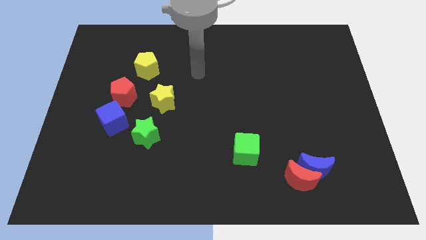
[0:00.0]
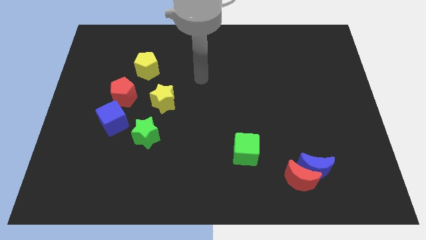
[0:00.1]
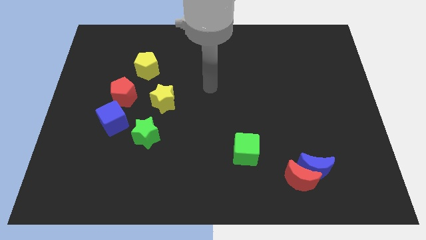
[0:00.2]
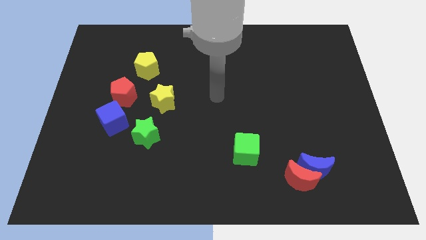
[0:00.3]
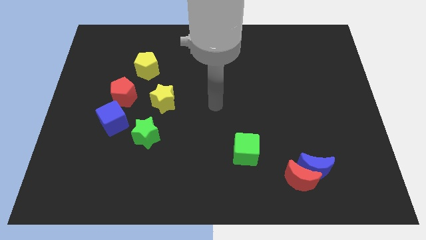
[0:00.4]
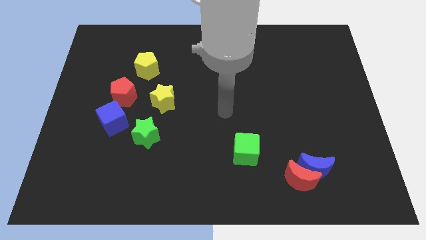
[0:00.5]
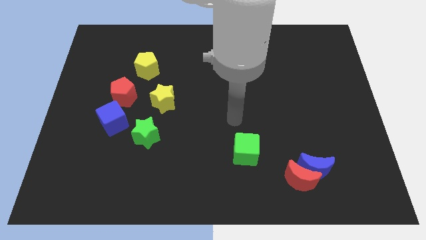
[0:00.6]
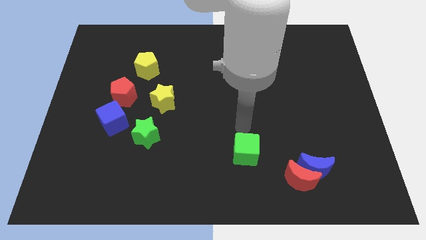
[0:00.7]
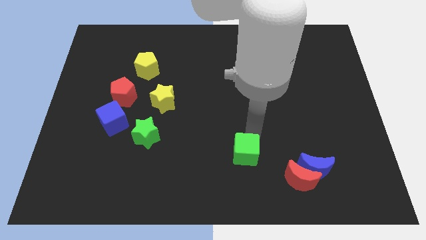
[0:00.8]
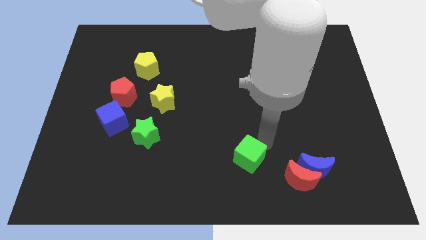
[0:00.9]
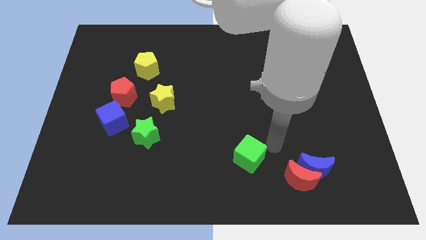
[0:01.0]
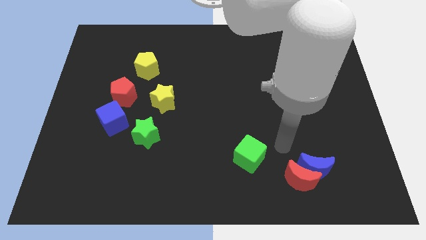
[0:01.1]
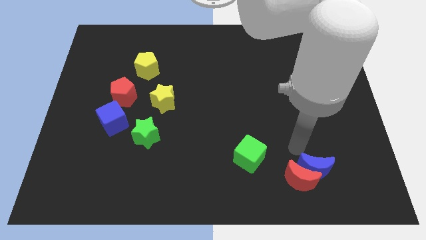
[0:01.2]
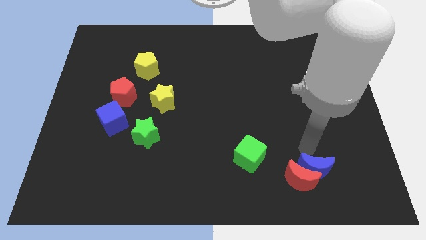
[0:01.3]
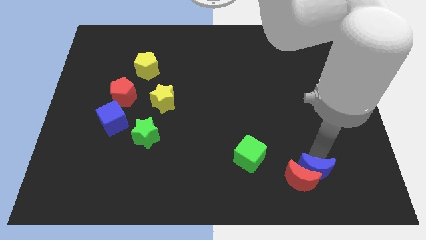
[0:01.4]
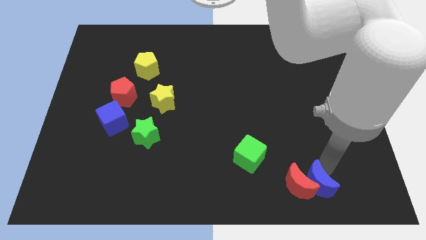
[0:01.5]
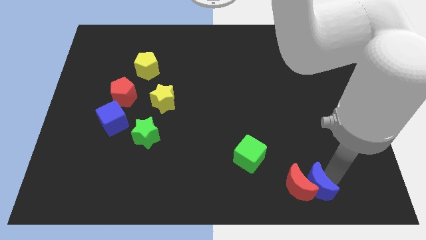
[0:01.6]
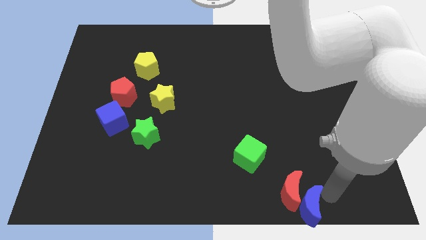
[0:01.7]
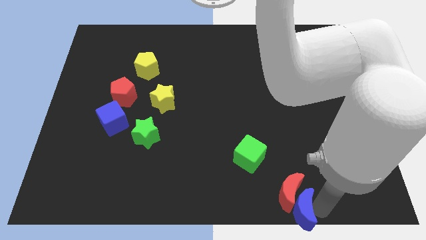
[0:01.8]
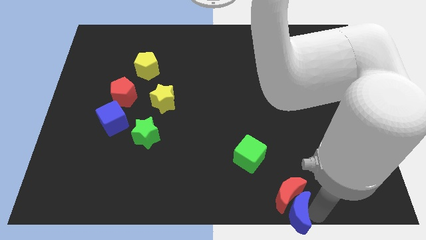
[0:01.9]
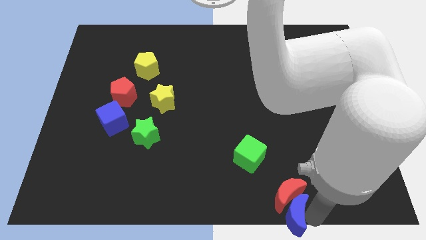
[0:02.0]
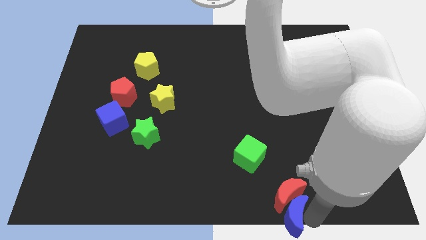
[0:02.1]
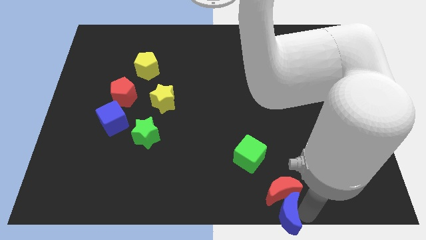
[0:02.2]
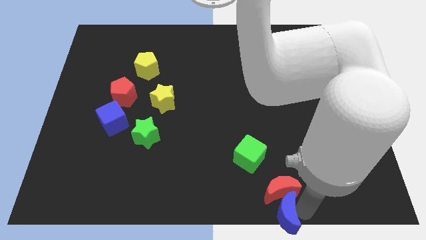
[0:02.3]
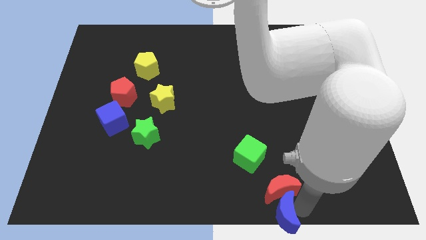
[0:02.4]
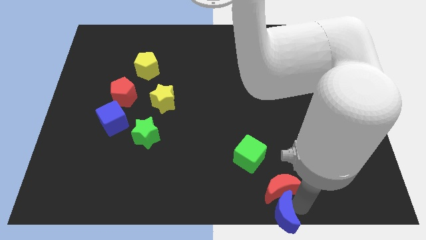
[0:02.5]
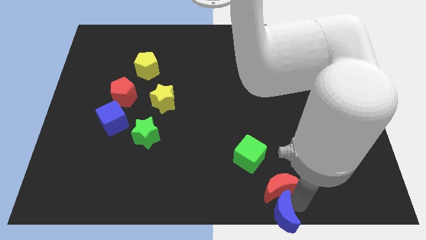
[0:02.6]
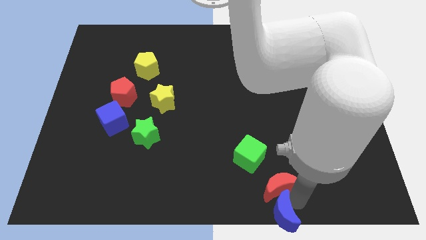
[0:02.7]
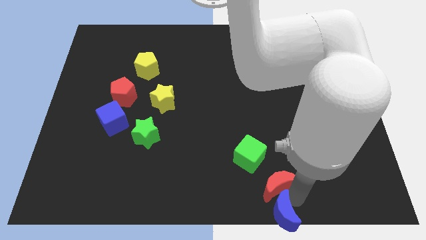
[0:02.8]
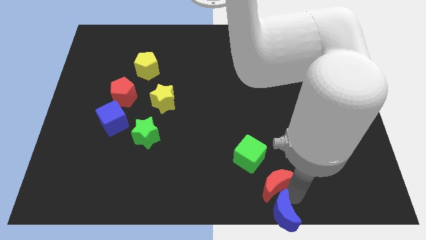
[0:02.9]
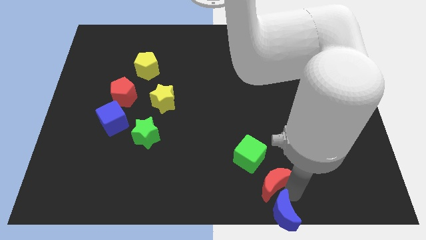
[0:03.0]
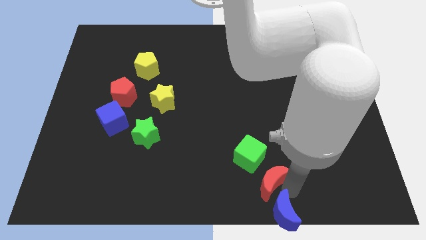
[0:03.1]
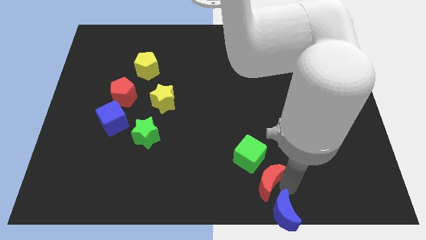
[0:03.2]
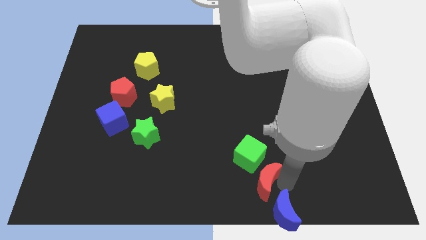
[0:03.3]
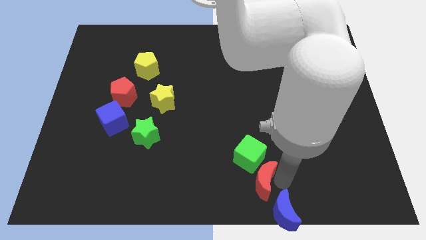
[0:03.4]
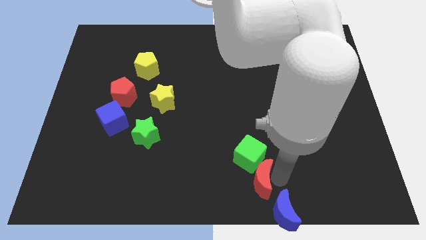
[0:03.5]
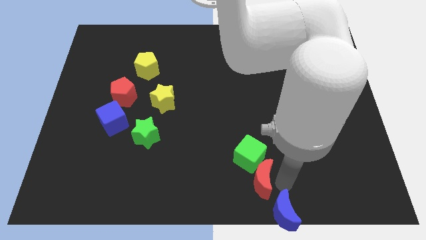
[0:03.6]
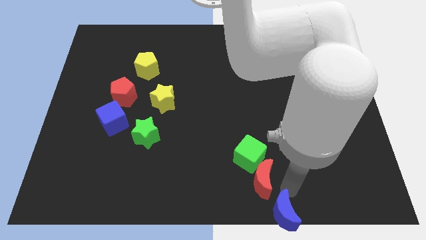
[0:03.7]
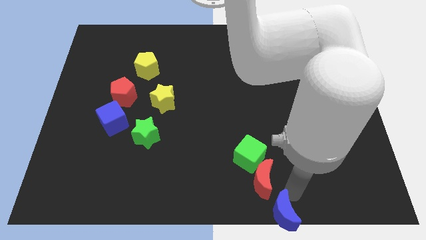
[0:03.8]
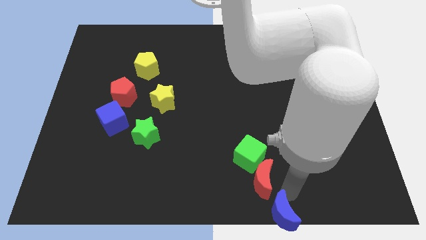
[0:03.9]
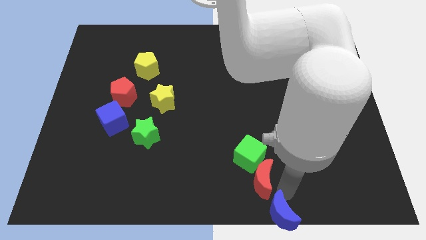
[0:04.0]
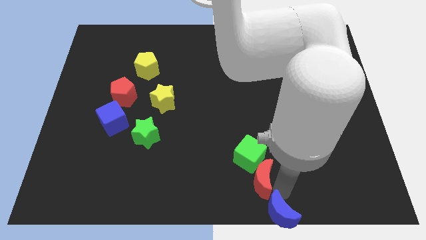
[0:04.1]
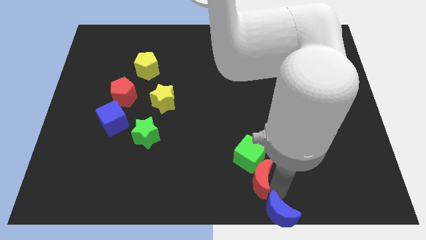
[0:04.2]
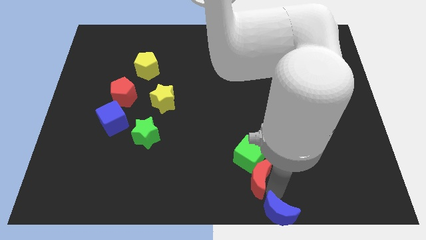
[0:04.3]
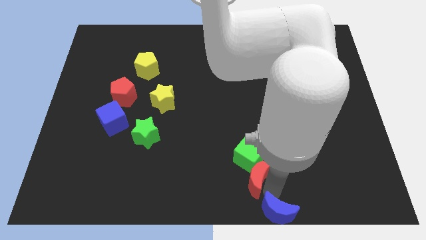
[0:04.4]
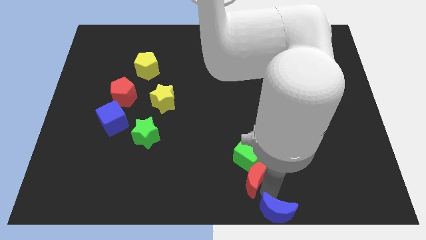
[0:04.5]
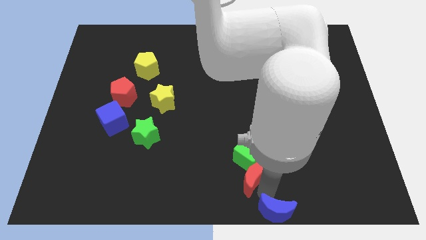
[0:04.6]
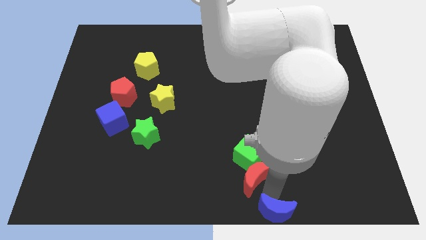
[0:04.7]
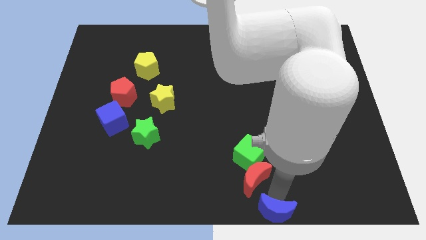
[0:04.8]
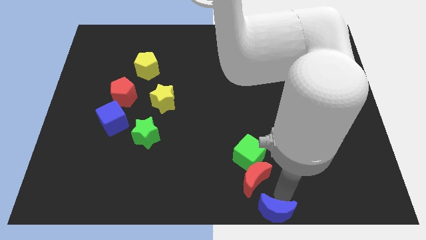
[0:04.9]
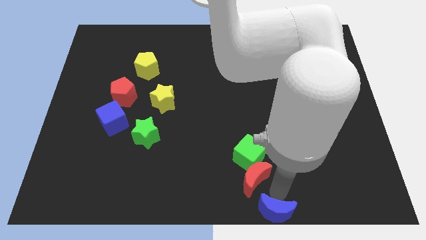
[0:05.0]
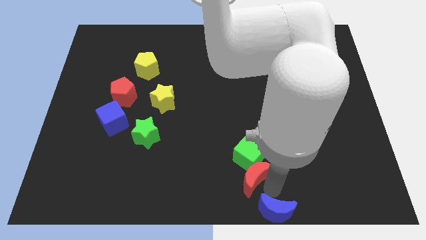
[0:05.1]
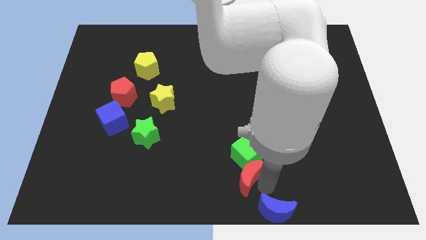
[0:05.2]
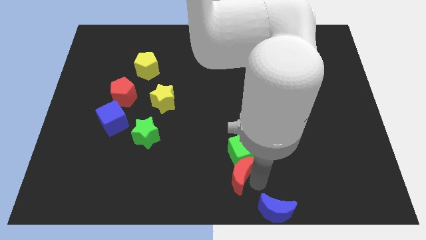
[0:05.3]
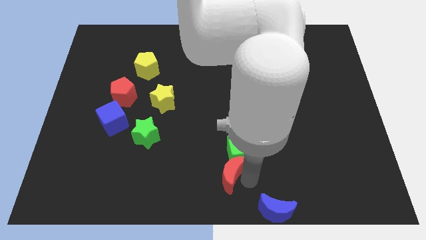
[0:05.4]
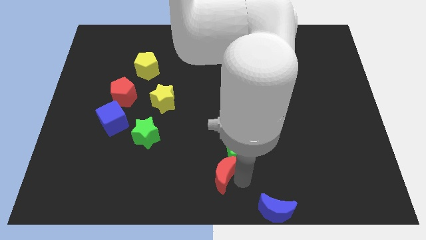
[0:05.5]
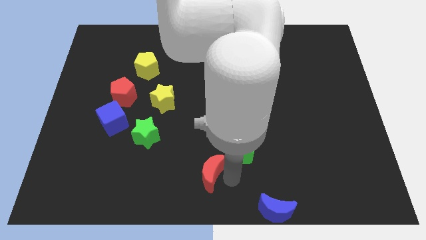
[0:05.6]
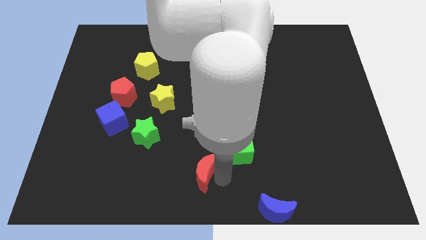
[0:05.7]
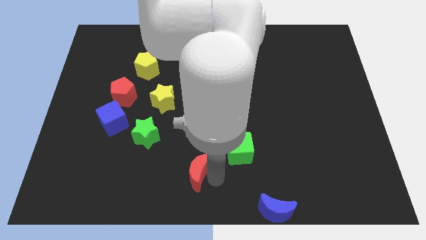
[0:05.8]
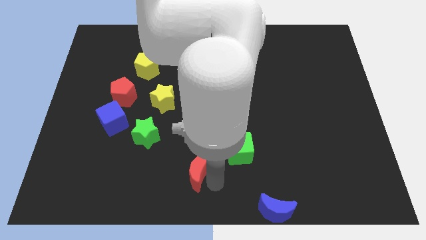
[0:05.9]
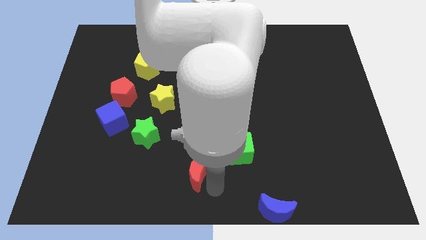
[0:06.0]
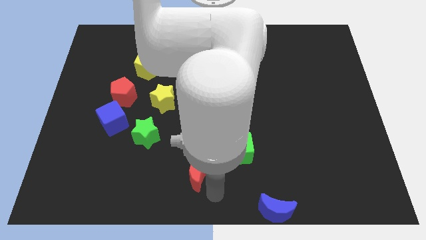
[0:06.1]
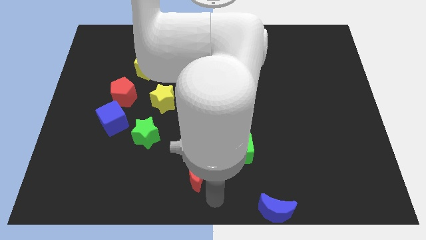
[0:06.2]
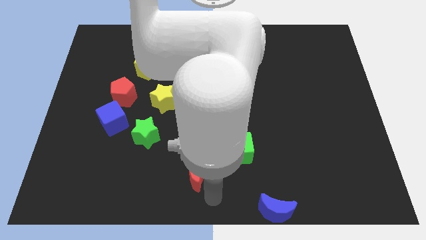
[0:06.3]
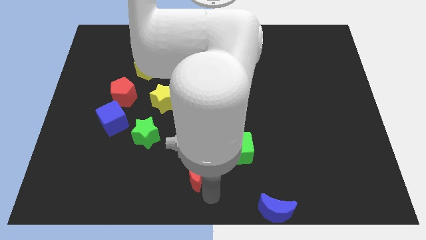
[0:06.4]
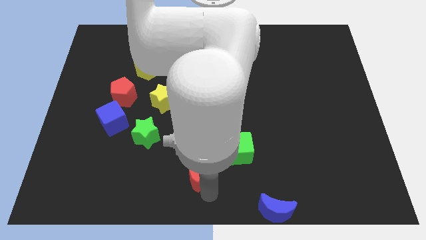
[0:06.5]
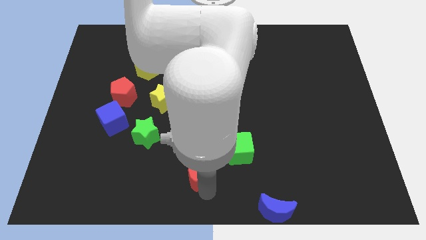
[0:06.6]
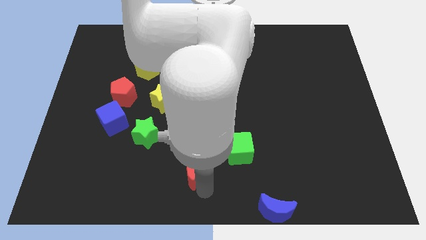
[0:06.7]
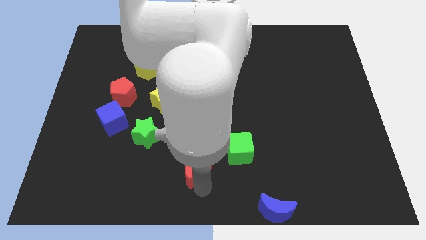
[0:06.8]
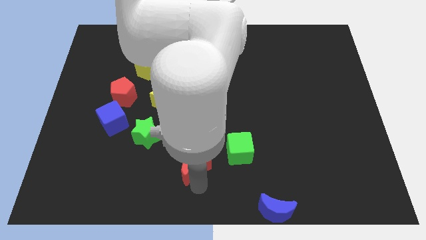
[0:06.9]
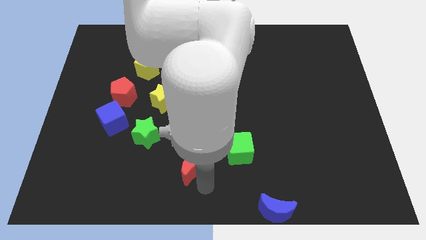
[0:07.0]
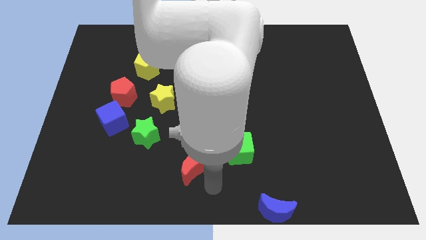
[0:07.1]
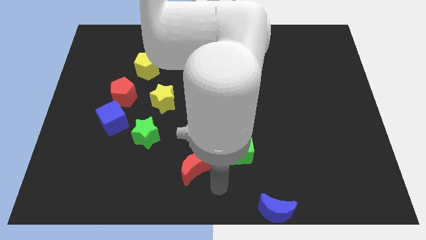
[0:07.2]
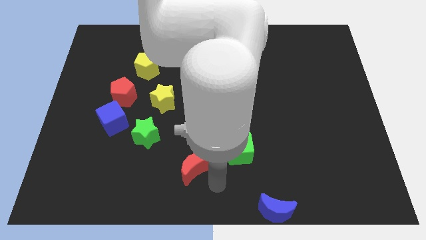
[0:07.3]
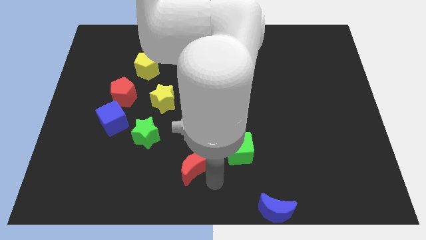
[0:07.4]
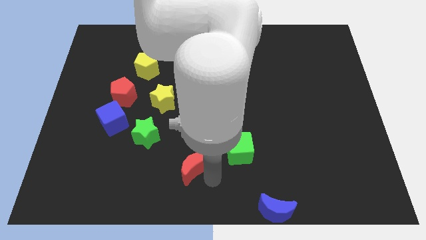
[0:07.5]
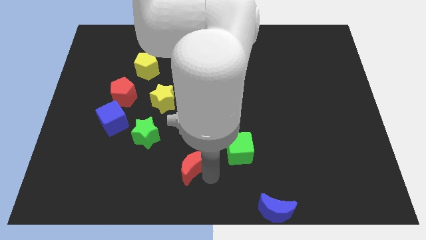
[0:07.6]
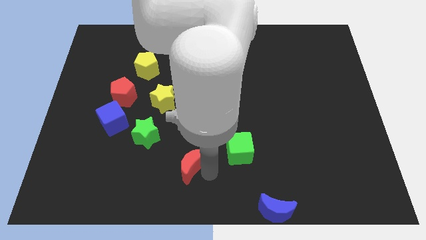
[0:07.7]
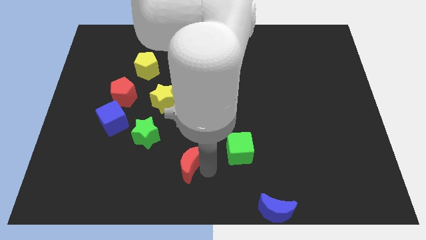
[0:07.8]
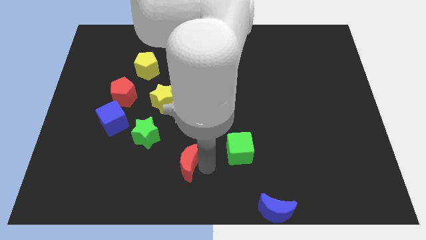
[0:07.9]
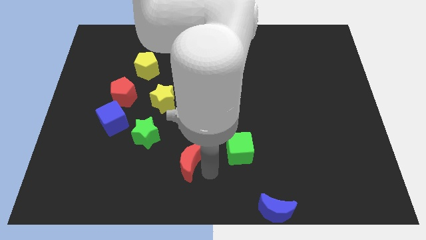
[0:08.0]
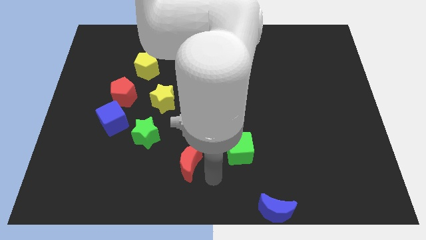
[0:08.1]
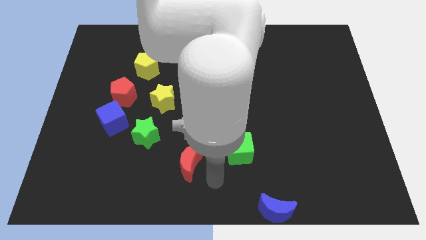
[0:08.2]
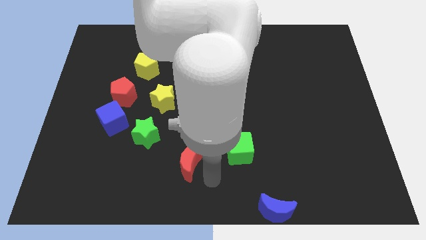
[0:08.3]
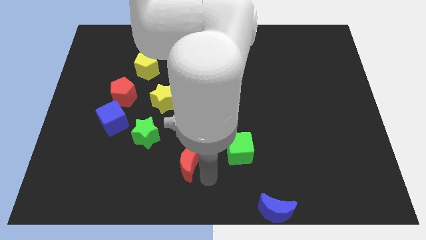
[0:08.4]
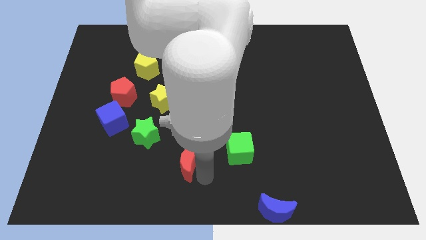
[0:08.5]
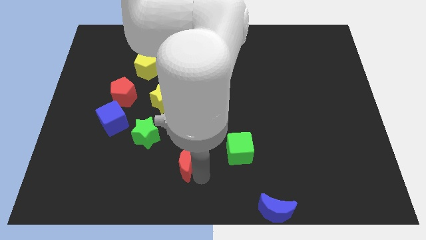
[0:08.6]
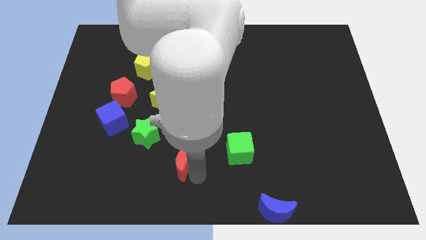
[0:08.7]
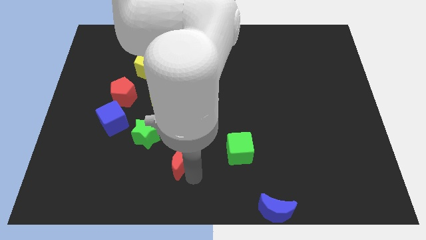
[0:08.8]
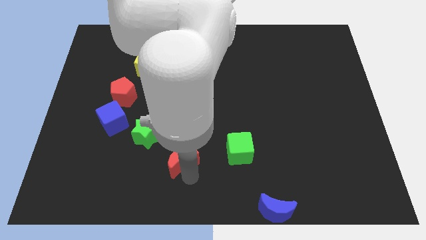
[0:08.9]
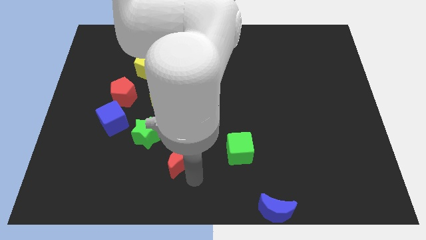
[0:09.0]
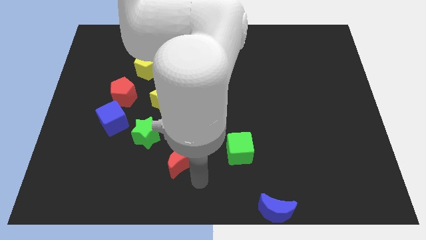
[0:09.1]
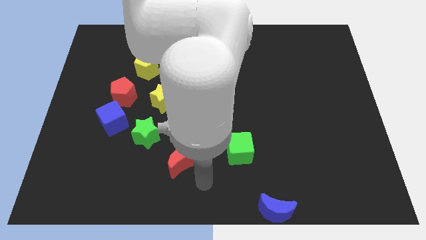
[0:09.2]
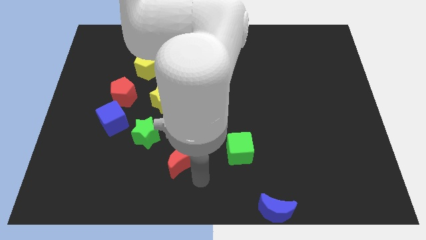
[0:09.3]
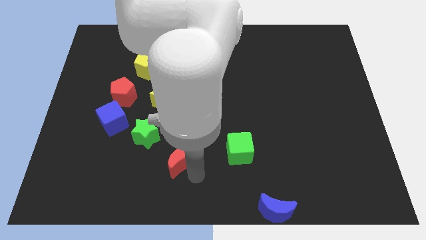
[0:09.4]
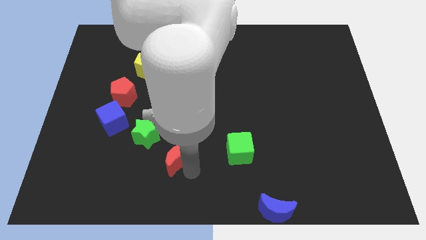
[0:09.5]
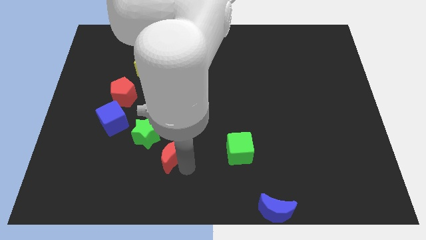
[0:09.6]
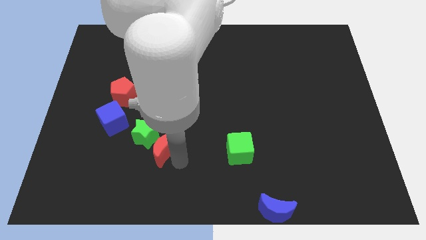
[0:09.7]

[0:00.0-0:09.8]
move the red moon next to the green star
